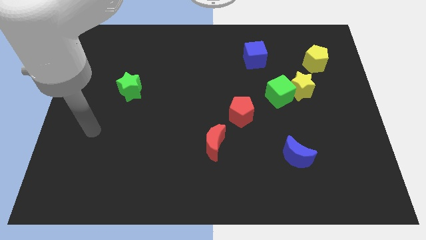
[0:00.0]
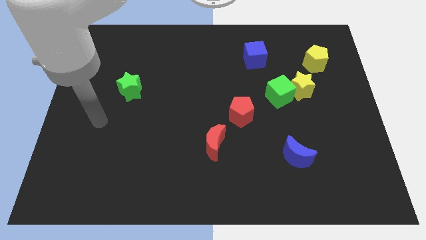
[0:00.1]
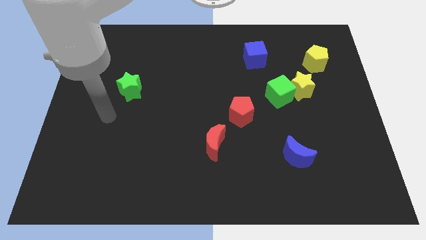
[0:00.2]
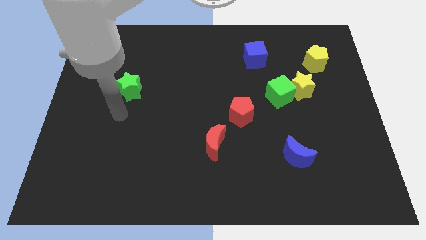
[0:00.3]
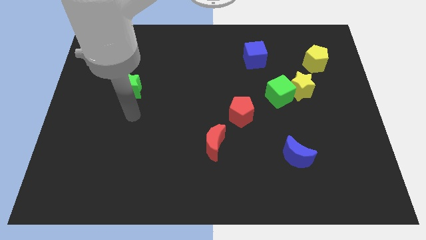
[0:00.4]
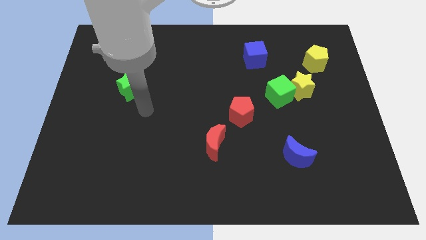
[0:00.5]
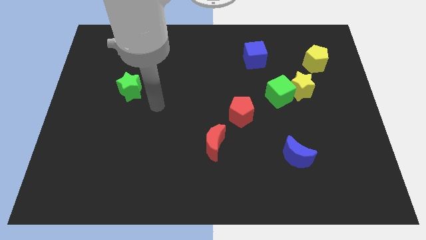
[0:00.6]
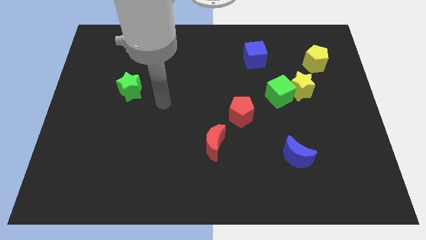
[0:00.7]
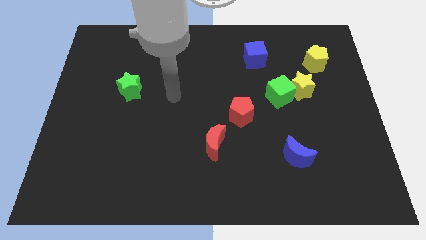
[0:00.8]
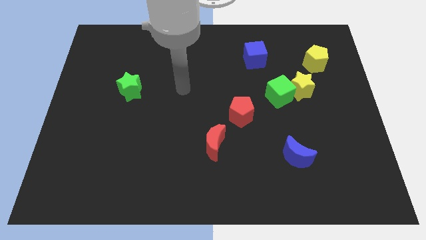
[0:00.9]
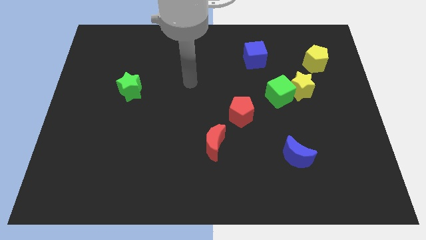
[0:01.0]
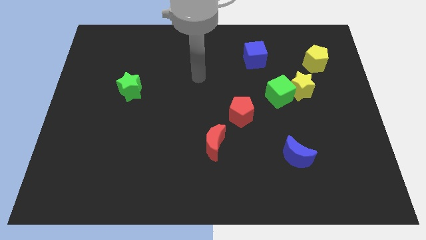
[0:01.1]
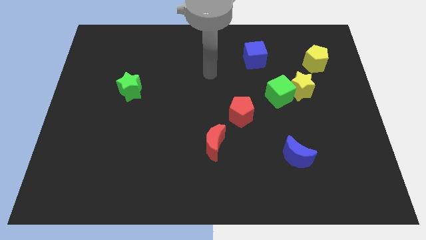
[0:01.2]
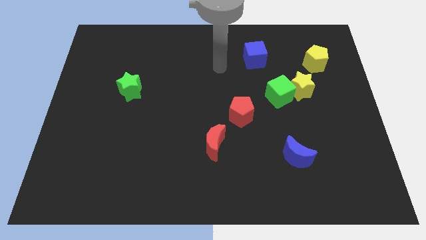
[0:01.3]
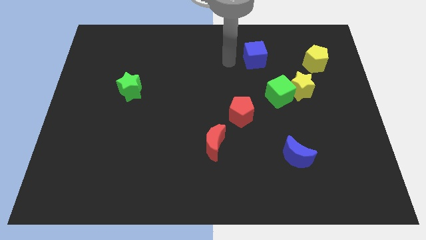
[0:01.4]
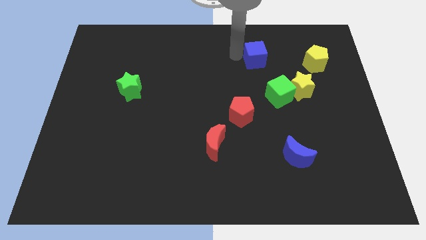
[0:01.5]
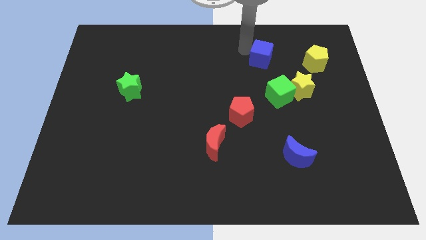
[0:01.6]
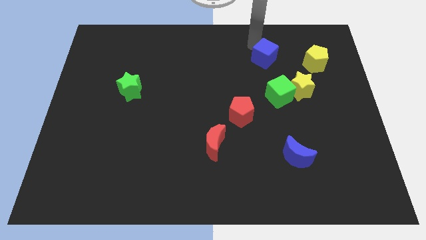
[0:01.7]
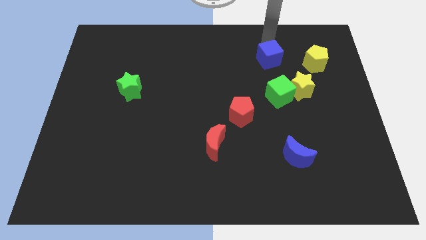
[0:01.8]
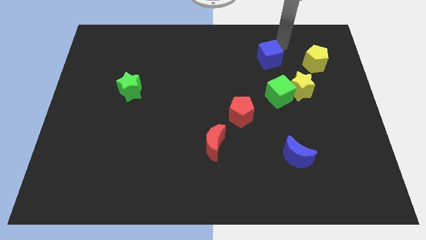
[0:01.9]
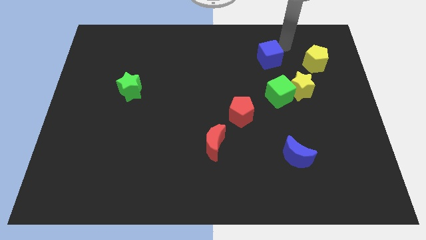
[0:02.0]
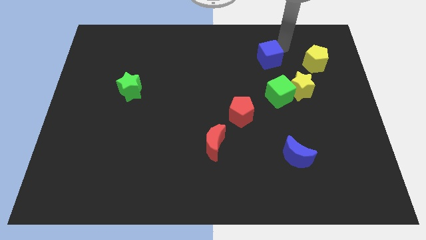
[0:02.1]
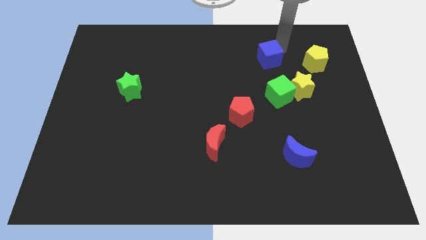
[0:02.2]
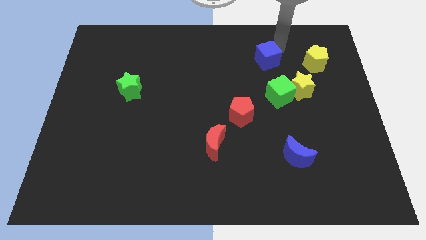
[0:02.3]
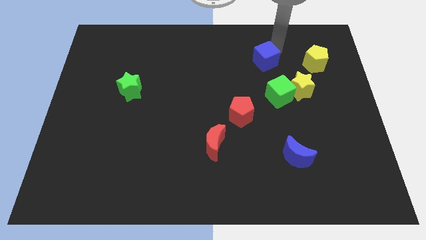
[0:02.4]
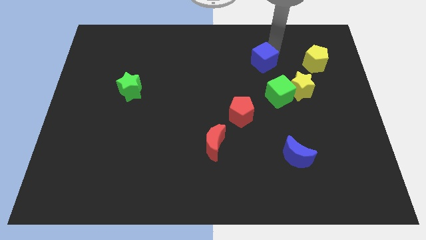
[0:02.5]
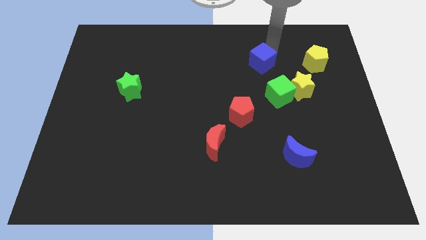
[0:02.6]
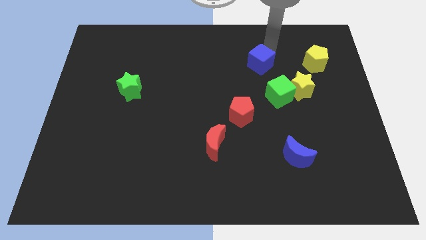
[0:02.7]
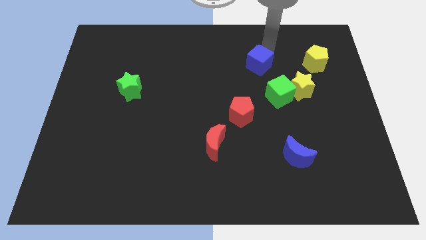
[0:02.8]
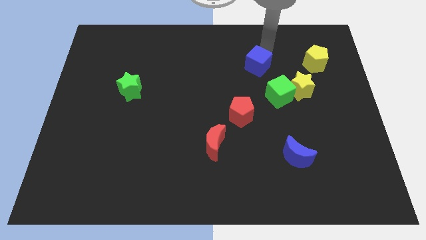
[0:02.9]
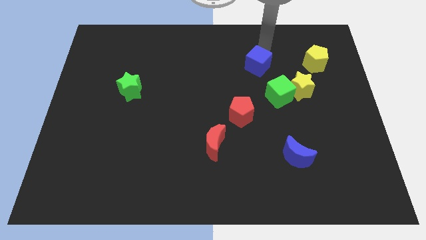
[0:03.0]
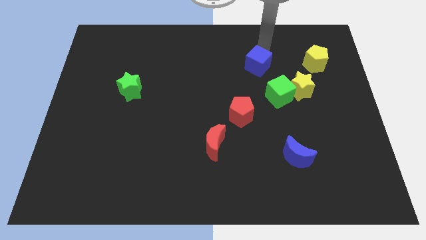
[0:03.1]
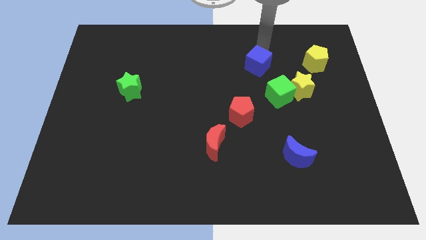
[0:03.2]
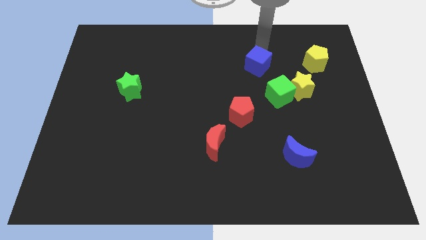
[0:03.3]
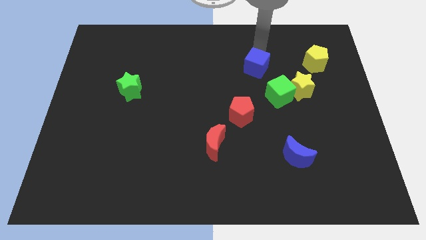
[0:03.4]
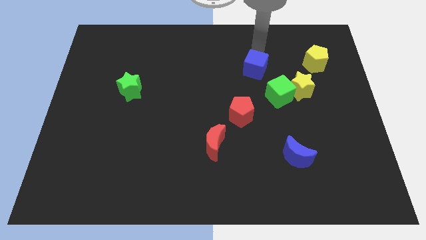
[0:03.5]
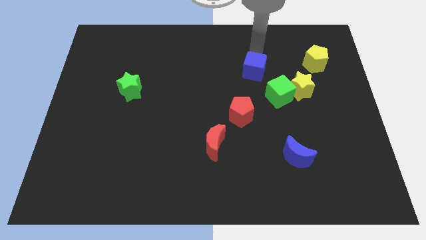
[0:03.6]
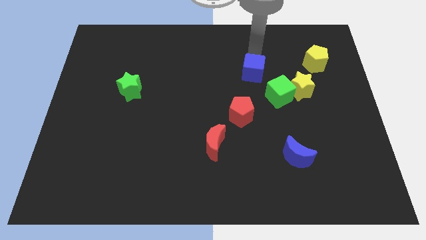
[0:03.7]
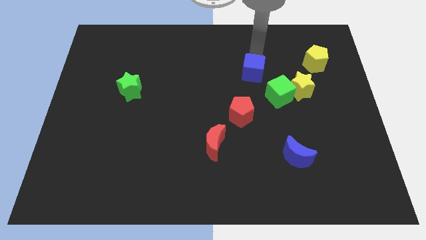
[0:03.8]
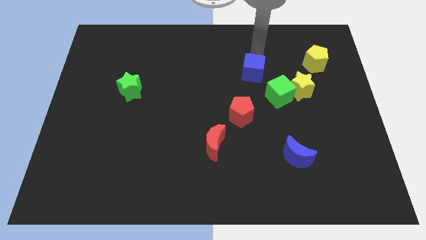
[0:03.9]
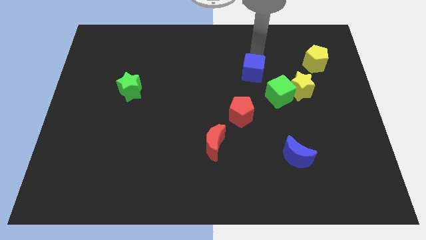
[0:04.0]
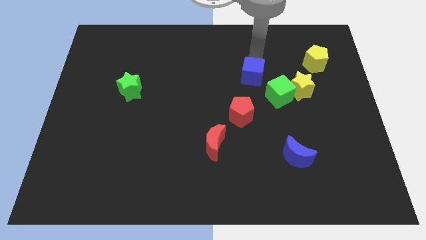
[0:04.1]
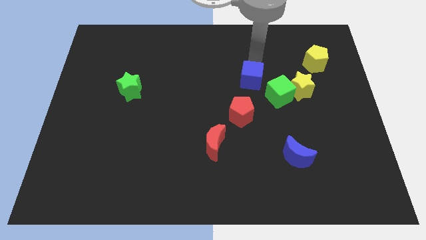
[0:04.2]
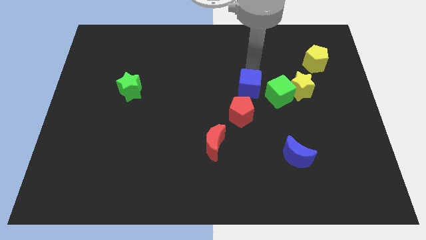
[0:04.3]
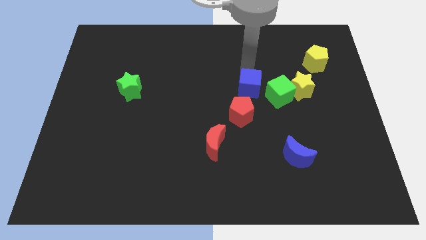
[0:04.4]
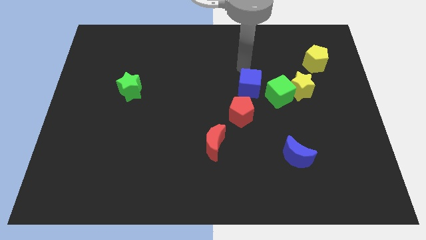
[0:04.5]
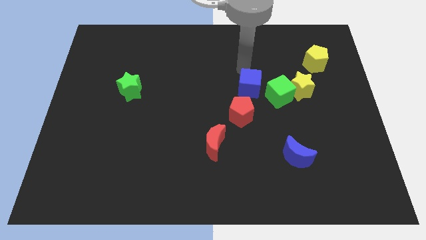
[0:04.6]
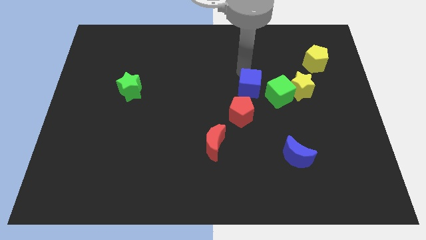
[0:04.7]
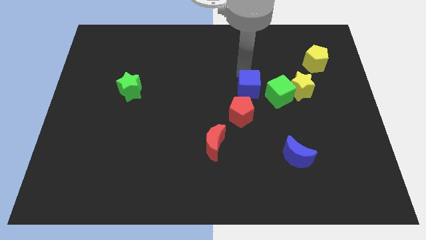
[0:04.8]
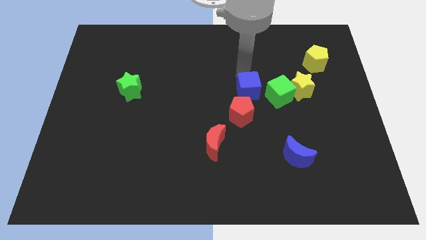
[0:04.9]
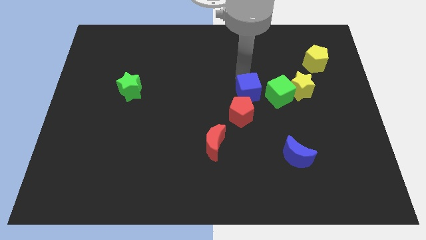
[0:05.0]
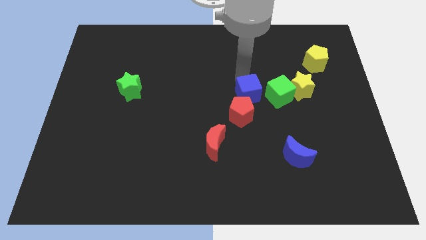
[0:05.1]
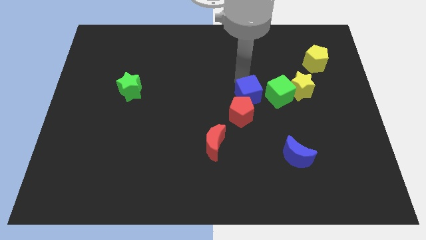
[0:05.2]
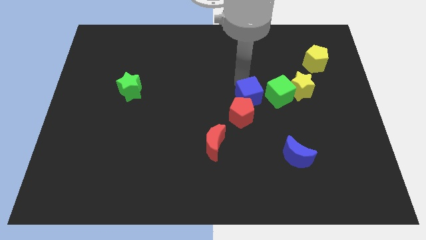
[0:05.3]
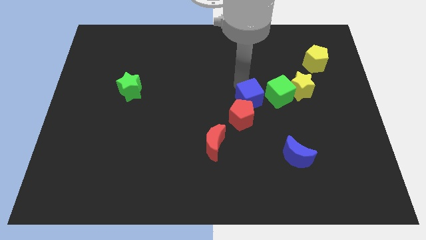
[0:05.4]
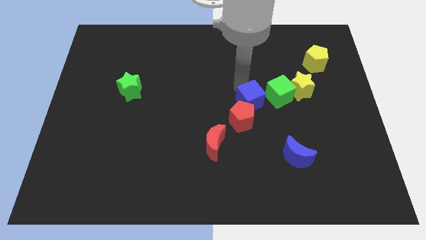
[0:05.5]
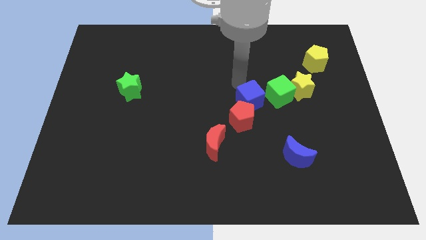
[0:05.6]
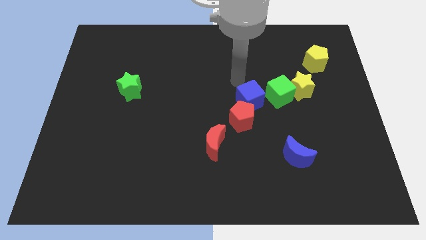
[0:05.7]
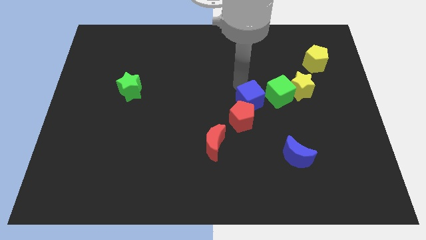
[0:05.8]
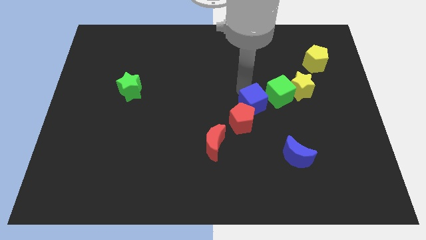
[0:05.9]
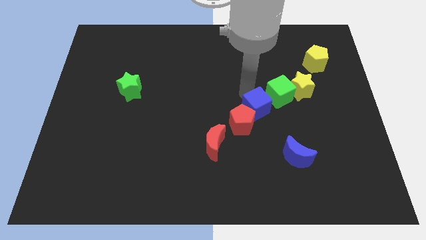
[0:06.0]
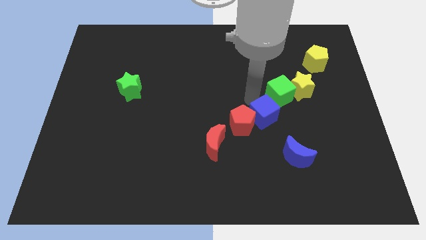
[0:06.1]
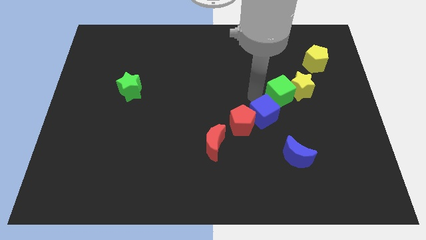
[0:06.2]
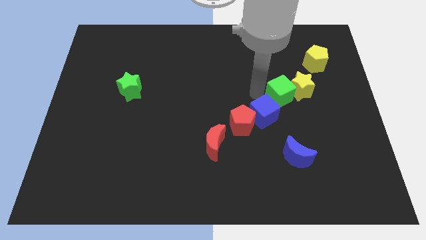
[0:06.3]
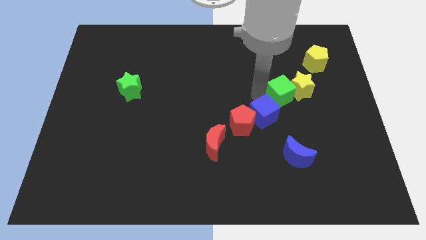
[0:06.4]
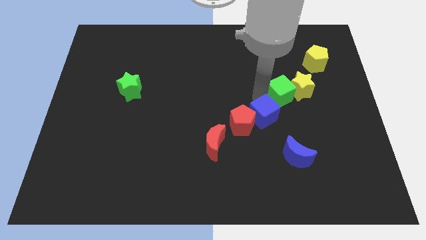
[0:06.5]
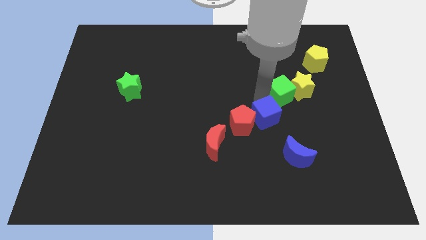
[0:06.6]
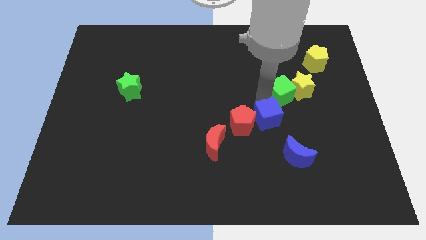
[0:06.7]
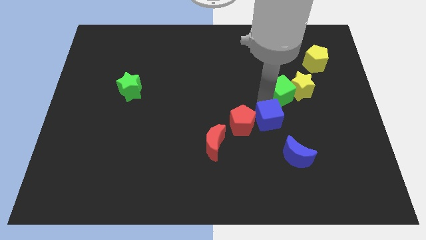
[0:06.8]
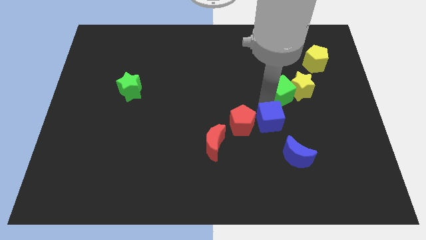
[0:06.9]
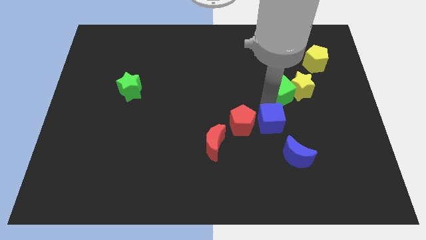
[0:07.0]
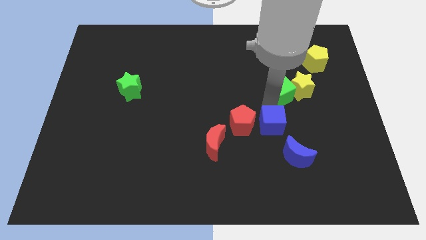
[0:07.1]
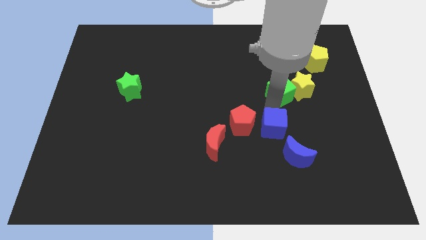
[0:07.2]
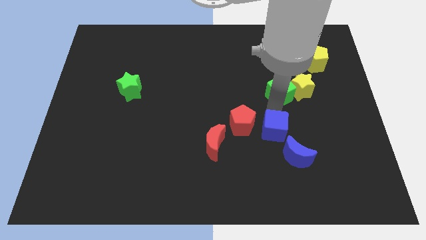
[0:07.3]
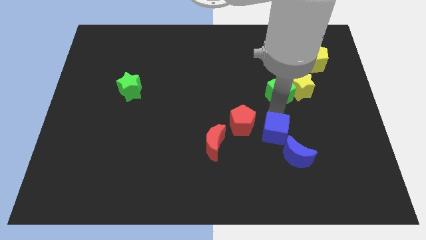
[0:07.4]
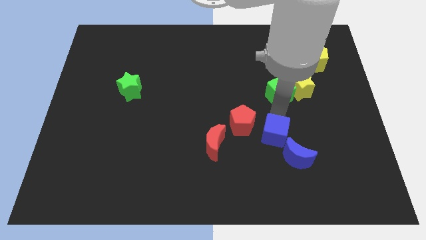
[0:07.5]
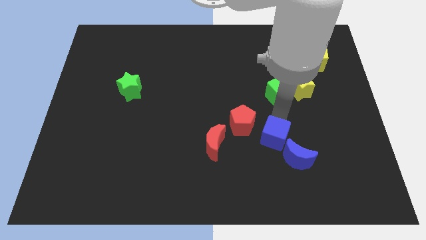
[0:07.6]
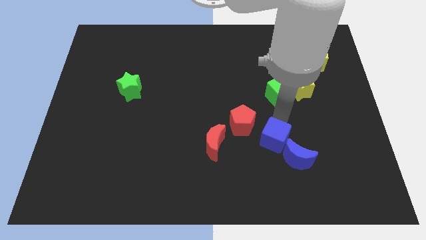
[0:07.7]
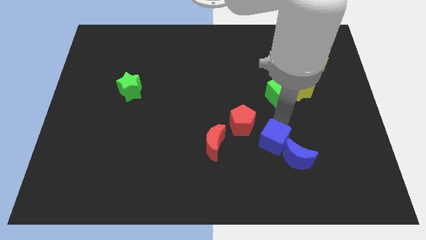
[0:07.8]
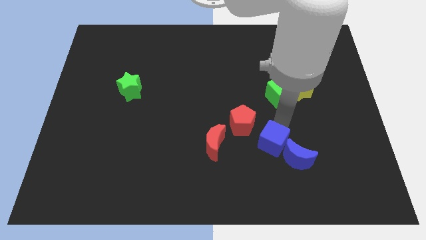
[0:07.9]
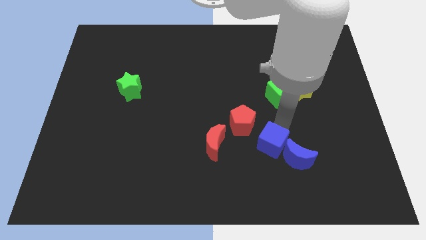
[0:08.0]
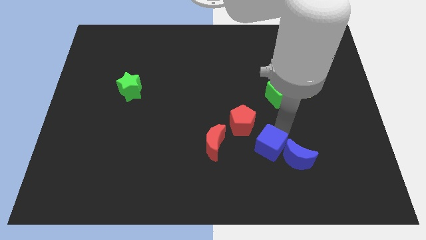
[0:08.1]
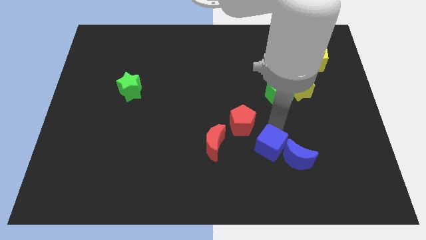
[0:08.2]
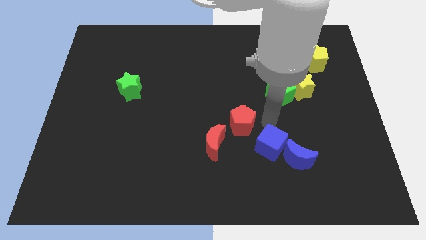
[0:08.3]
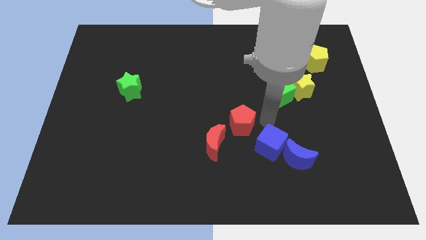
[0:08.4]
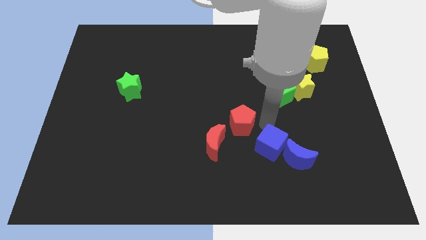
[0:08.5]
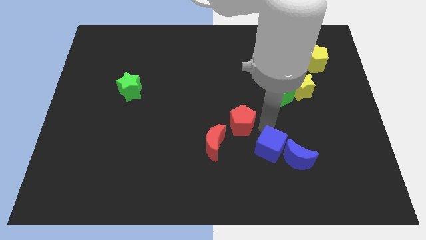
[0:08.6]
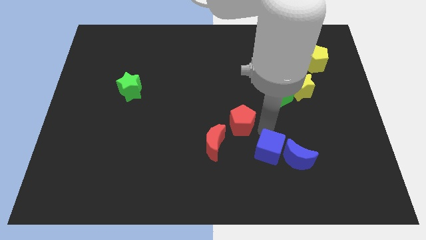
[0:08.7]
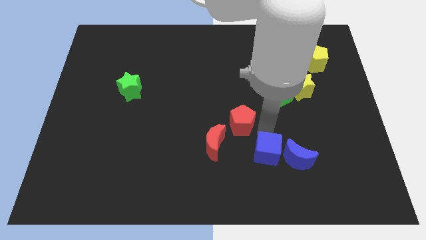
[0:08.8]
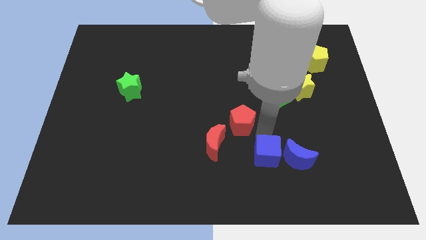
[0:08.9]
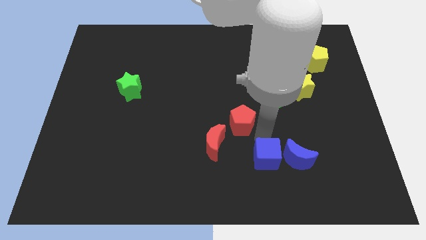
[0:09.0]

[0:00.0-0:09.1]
move the blue cube diagonally down and to the left of the blue moon
